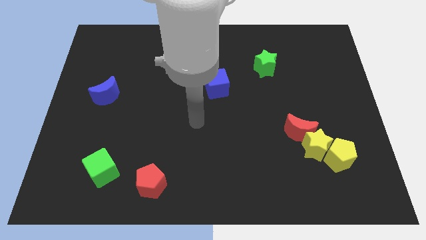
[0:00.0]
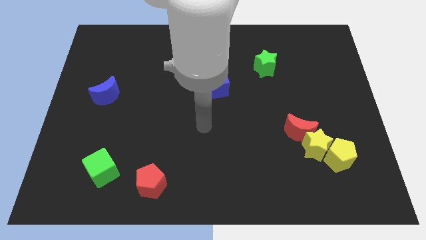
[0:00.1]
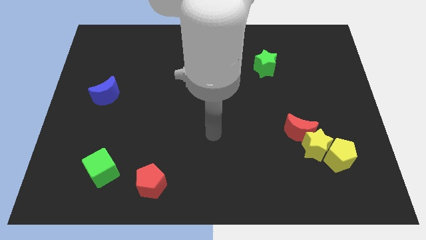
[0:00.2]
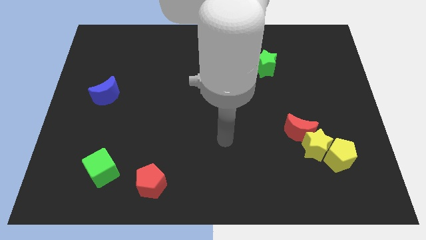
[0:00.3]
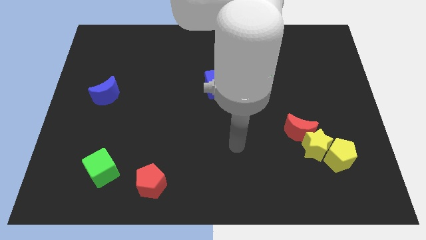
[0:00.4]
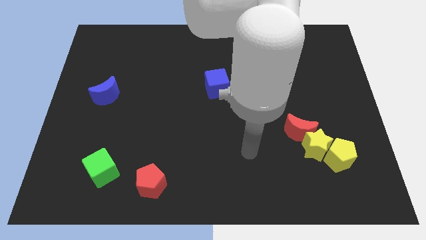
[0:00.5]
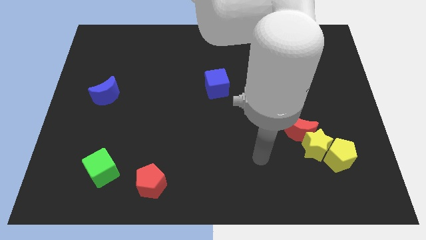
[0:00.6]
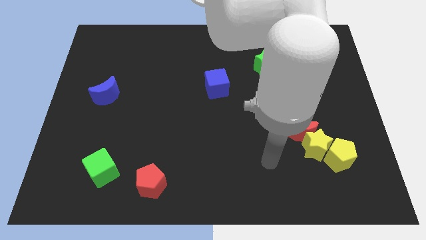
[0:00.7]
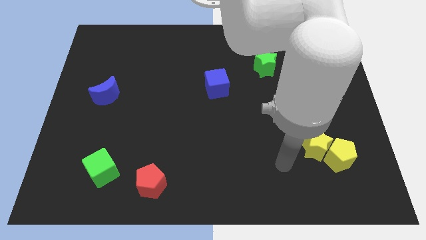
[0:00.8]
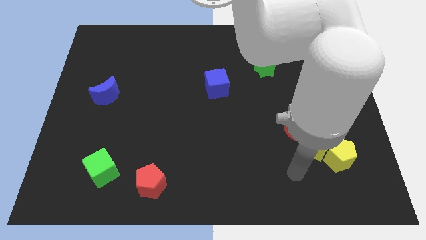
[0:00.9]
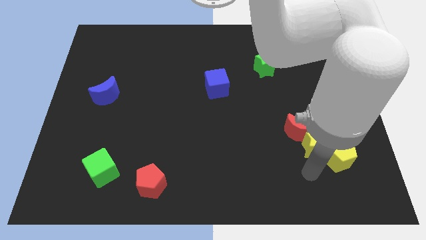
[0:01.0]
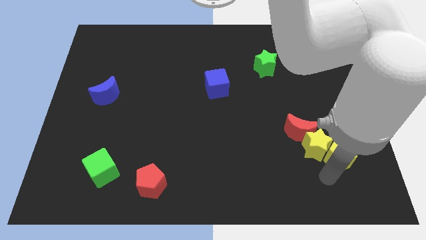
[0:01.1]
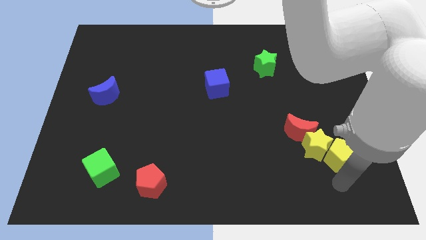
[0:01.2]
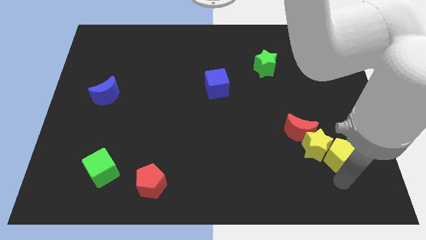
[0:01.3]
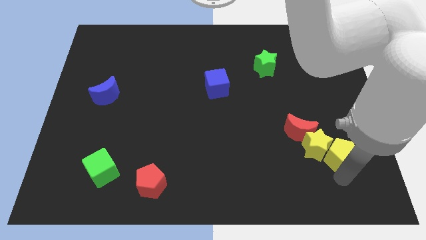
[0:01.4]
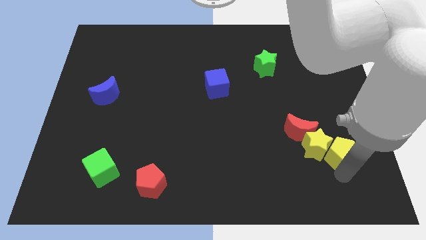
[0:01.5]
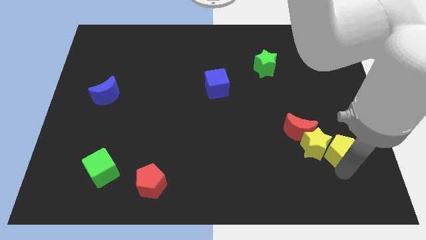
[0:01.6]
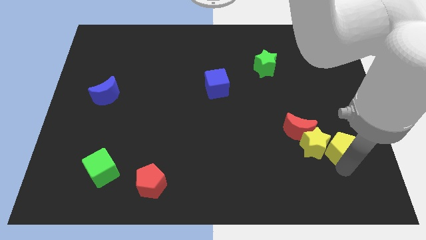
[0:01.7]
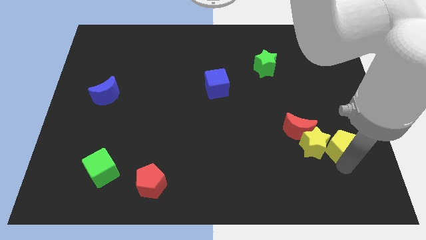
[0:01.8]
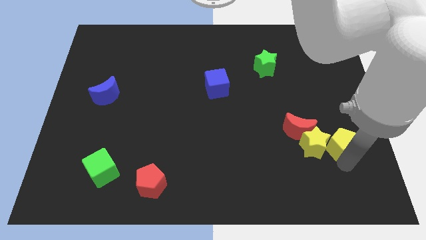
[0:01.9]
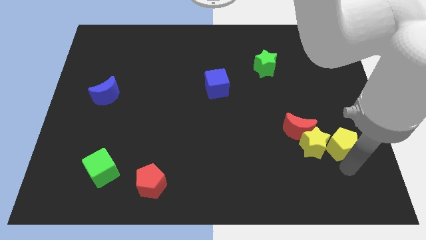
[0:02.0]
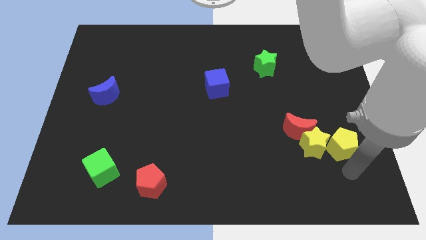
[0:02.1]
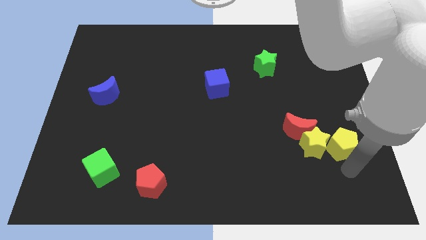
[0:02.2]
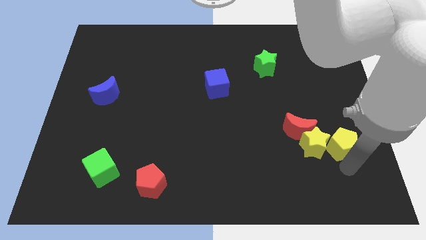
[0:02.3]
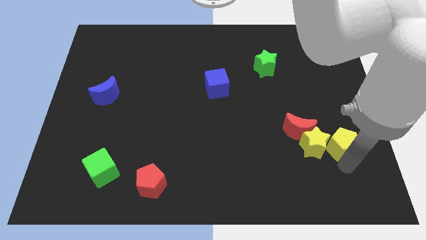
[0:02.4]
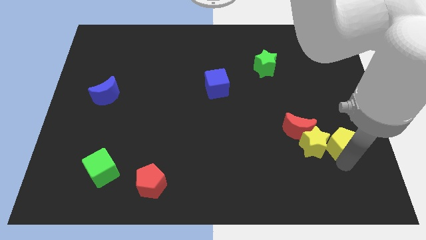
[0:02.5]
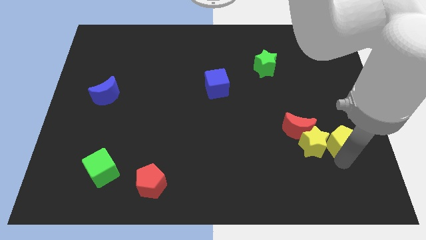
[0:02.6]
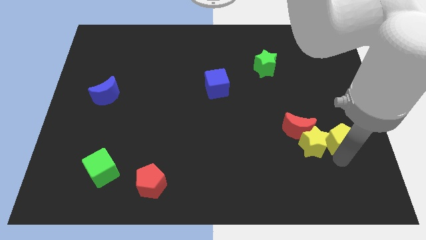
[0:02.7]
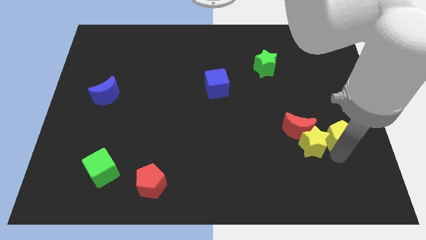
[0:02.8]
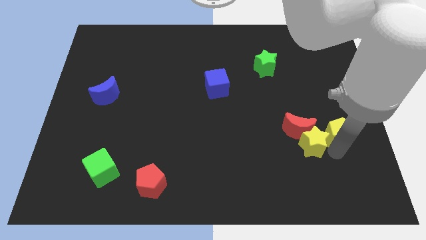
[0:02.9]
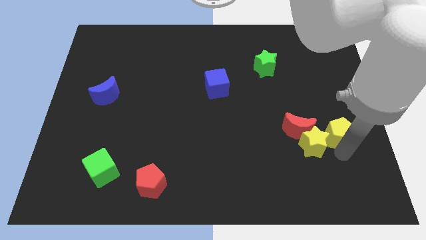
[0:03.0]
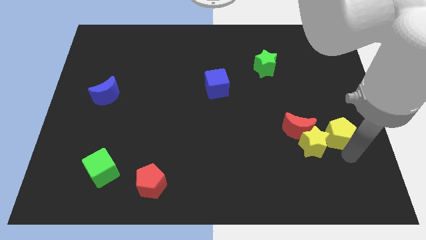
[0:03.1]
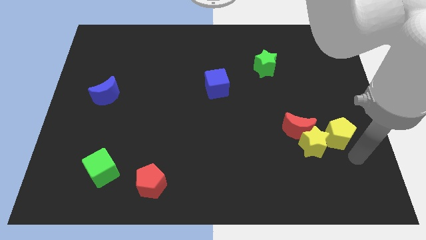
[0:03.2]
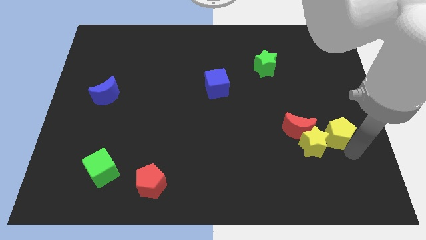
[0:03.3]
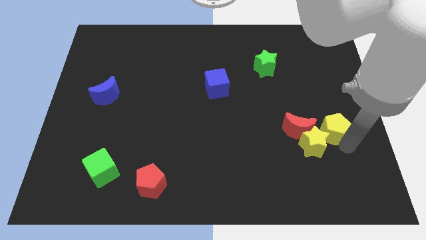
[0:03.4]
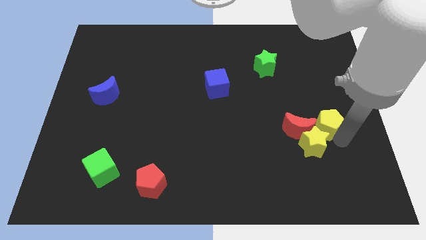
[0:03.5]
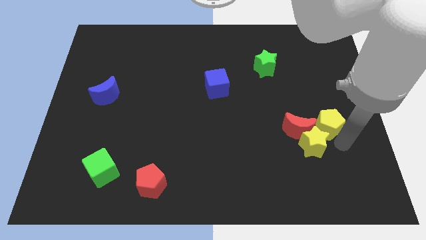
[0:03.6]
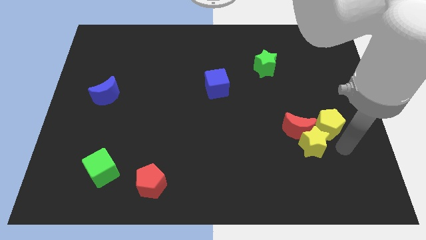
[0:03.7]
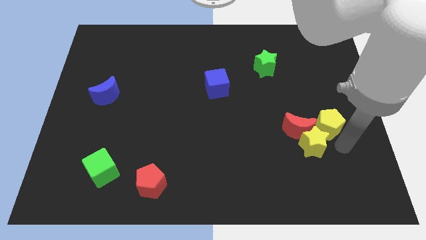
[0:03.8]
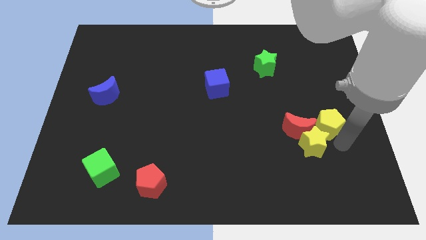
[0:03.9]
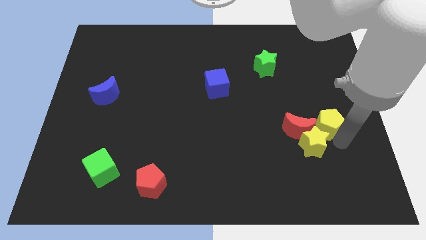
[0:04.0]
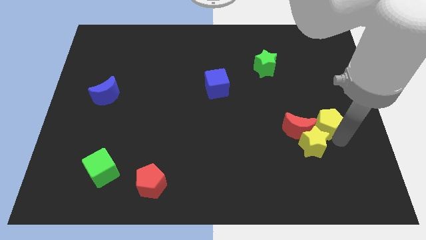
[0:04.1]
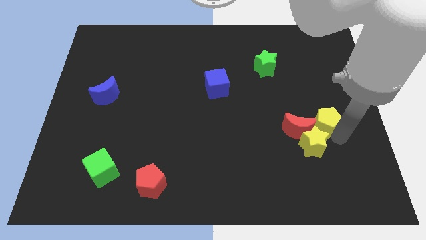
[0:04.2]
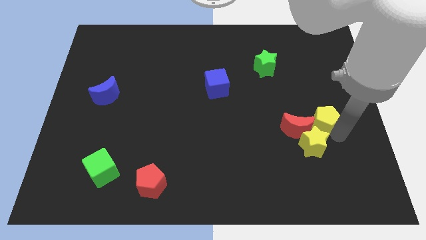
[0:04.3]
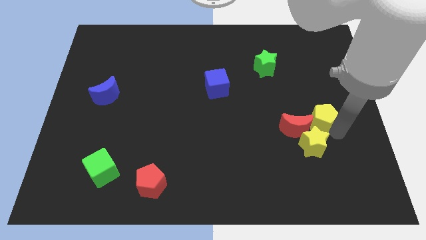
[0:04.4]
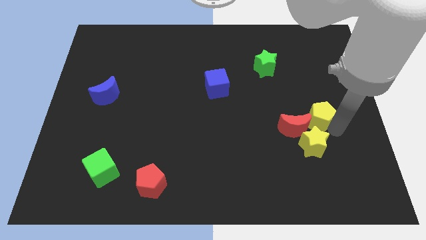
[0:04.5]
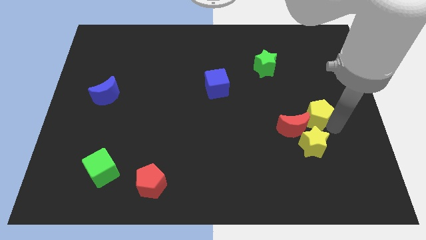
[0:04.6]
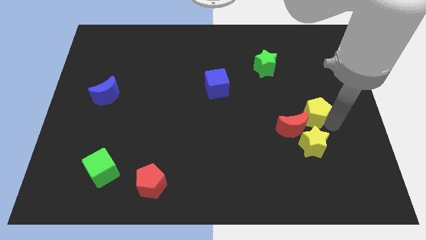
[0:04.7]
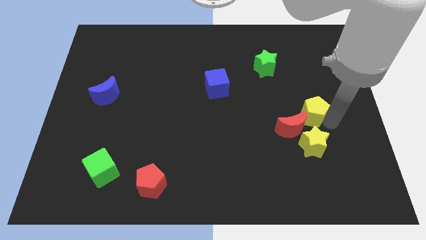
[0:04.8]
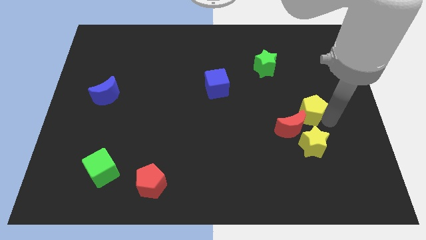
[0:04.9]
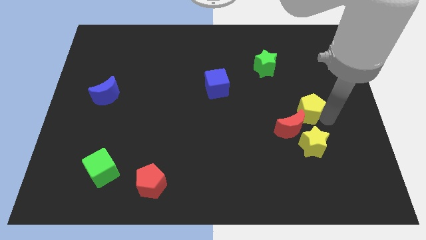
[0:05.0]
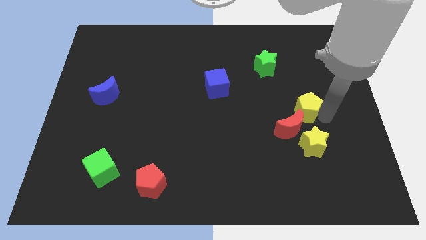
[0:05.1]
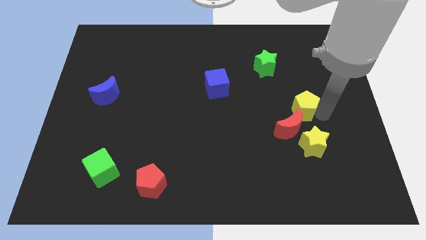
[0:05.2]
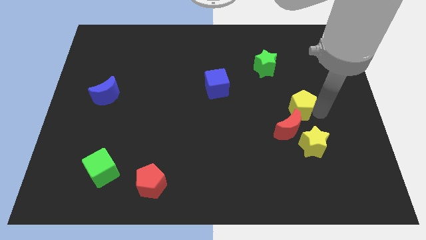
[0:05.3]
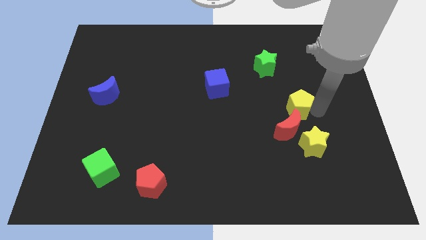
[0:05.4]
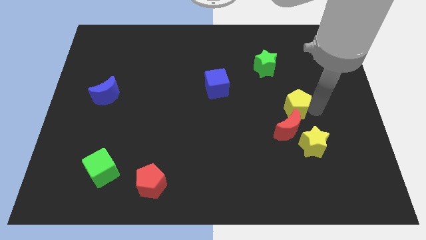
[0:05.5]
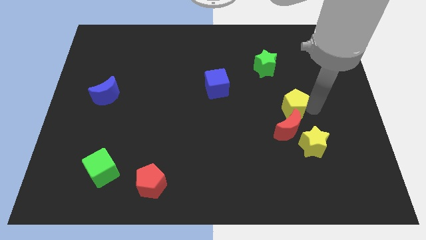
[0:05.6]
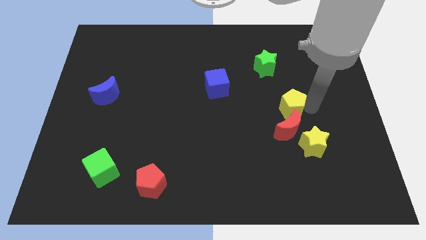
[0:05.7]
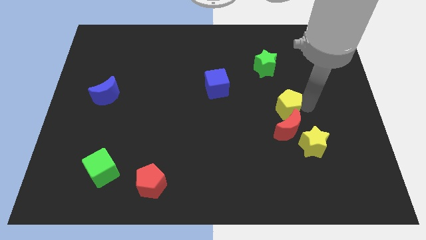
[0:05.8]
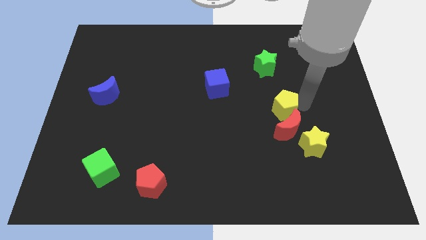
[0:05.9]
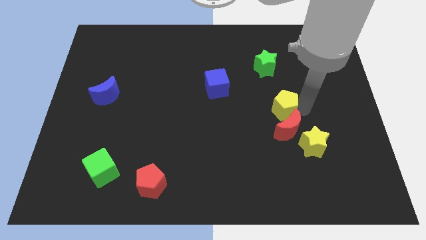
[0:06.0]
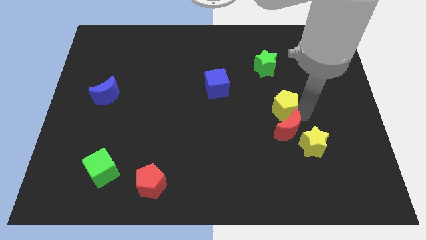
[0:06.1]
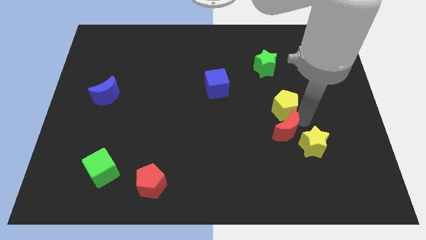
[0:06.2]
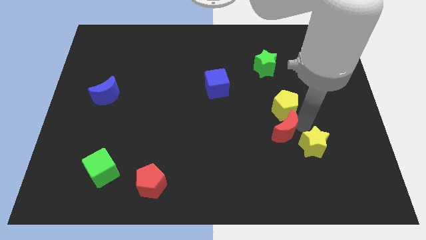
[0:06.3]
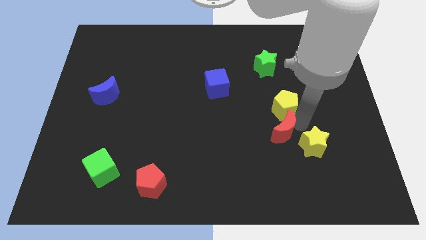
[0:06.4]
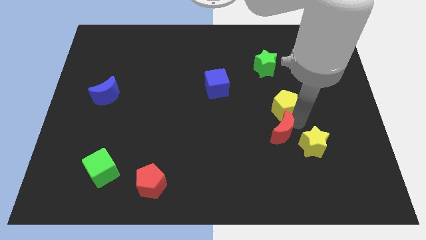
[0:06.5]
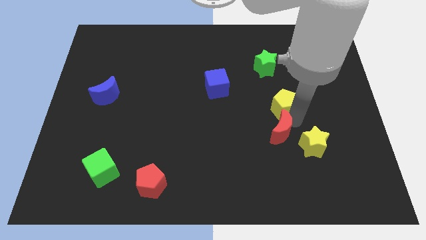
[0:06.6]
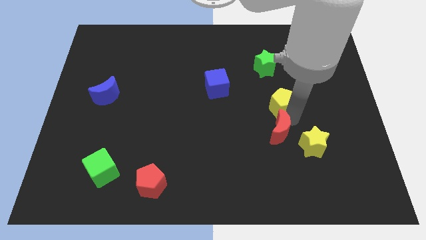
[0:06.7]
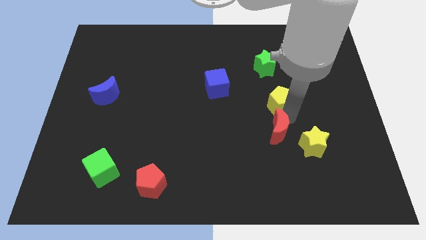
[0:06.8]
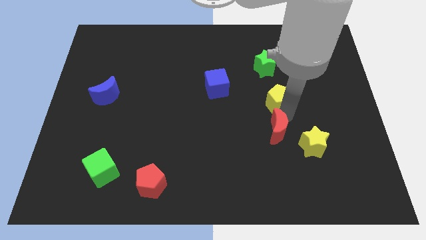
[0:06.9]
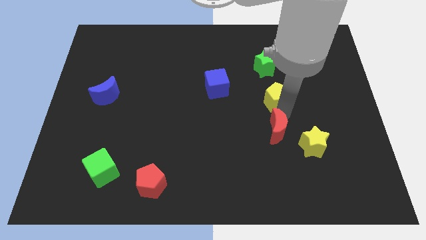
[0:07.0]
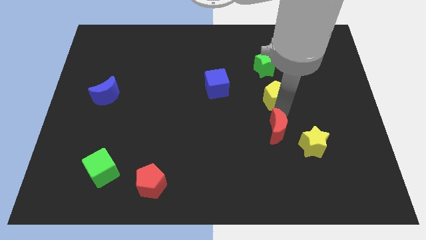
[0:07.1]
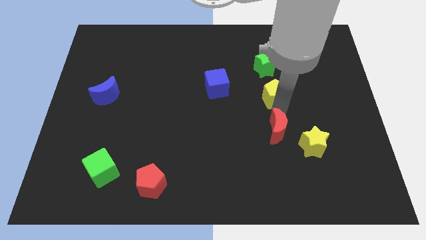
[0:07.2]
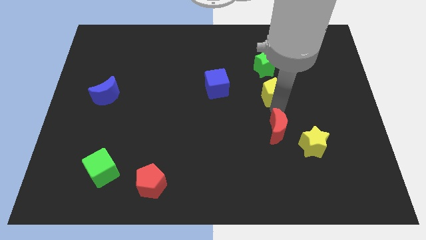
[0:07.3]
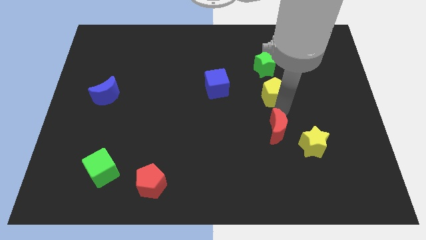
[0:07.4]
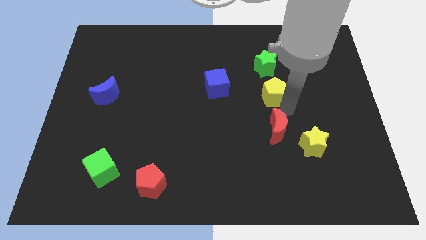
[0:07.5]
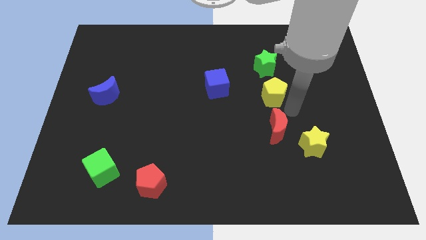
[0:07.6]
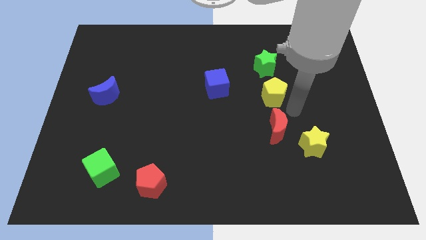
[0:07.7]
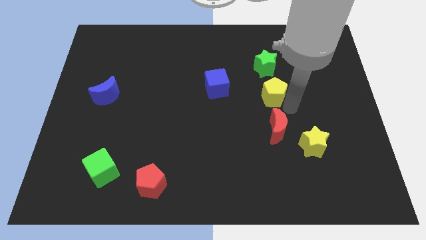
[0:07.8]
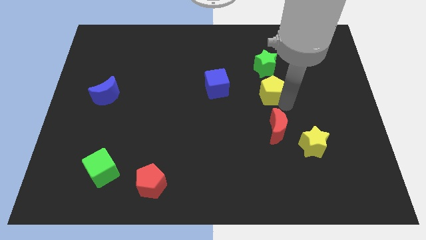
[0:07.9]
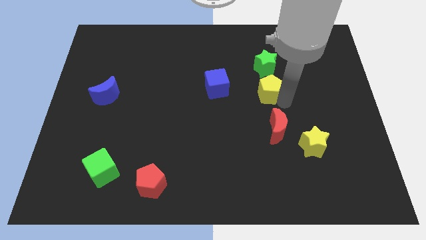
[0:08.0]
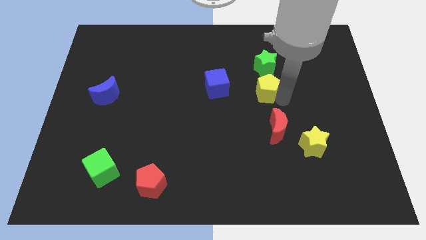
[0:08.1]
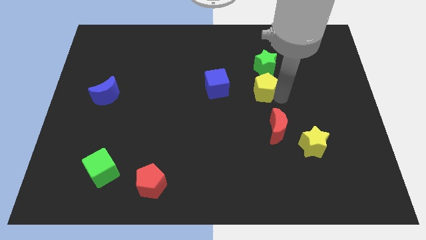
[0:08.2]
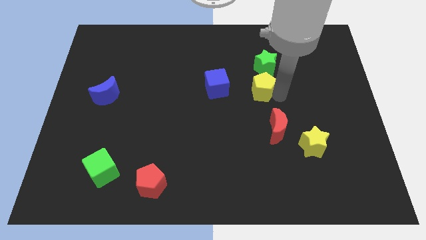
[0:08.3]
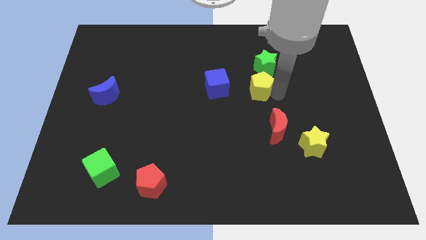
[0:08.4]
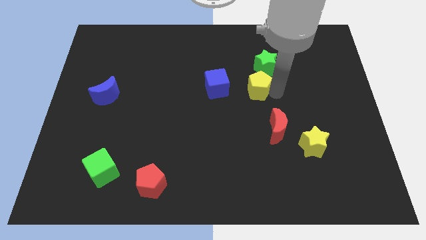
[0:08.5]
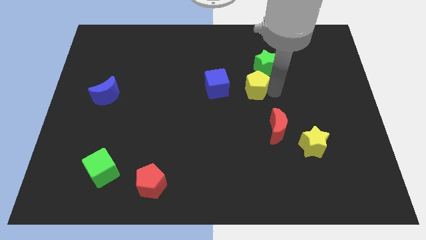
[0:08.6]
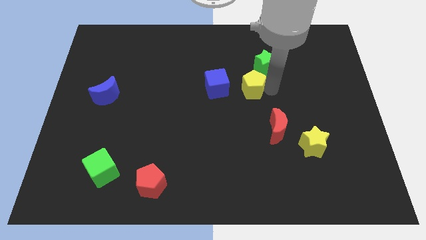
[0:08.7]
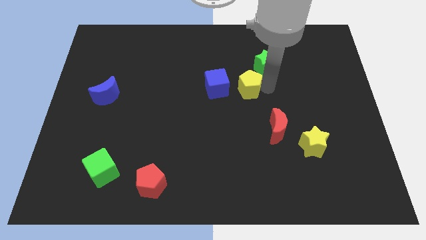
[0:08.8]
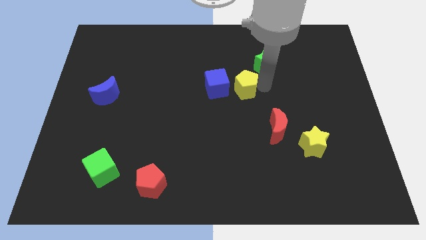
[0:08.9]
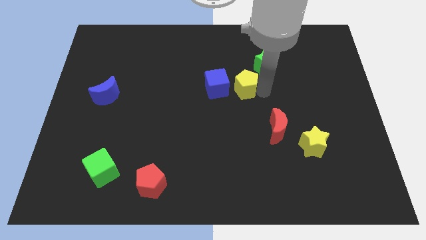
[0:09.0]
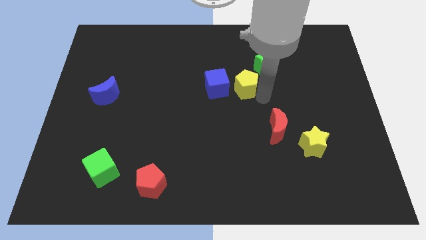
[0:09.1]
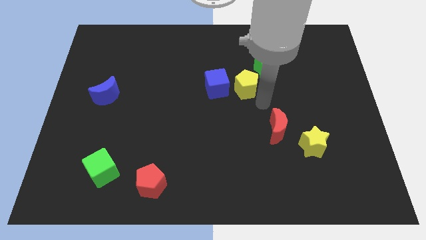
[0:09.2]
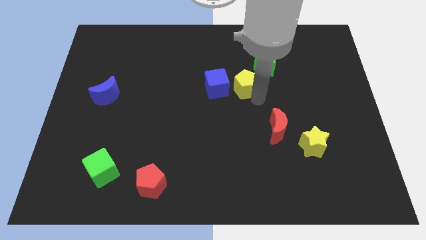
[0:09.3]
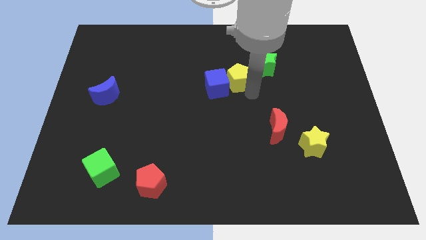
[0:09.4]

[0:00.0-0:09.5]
move the yellow pentagon just left of the green star
